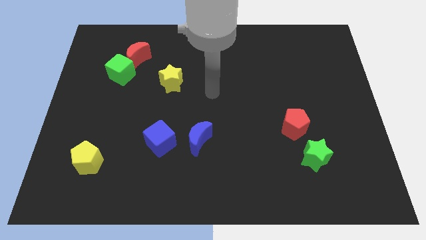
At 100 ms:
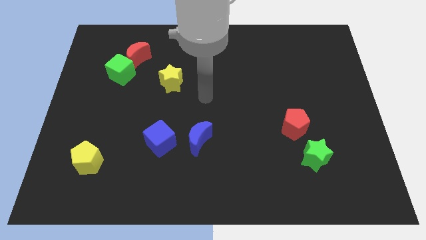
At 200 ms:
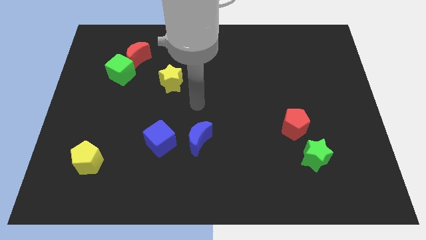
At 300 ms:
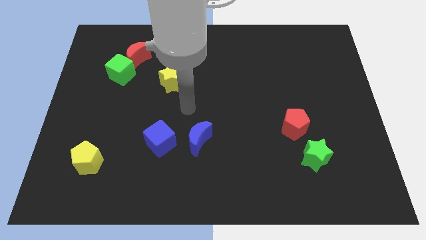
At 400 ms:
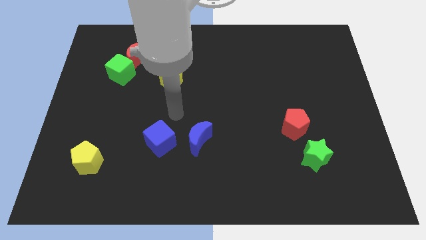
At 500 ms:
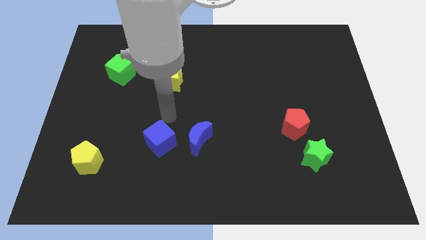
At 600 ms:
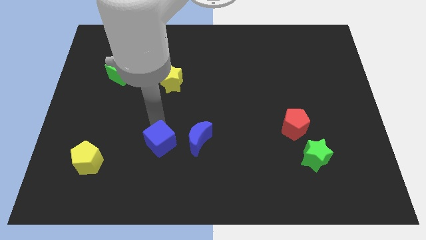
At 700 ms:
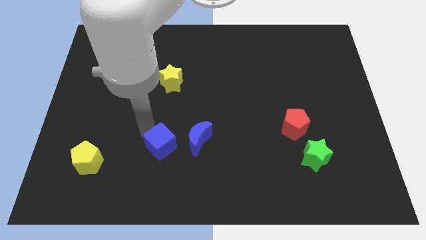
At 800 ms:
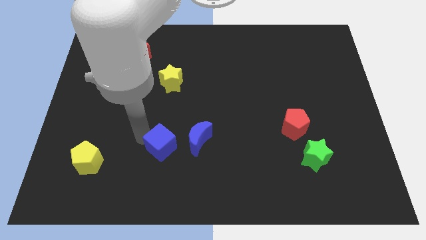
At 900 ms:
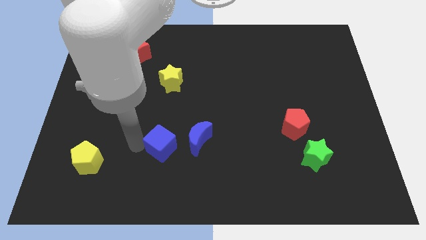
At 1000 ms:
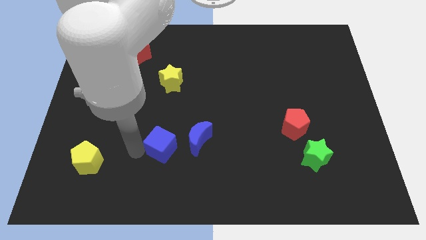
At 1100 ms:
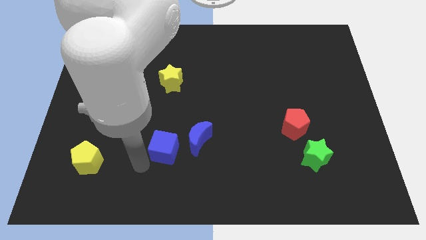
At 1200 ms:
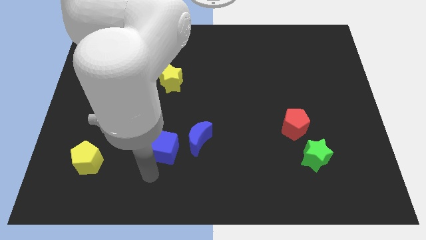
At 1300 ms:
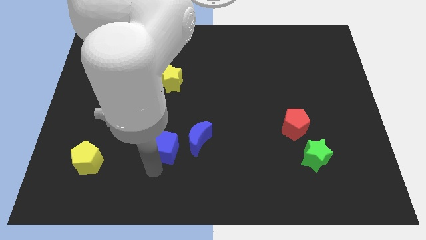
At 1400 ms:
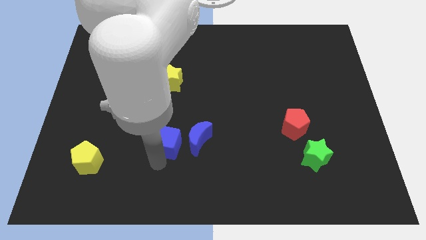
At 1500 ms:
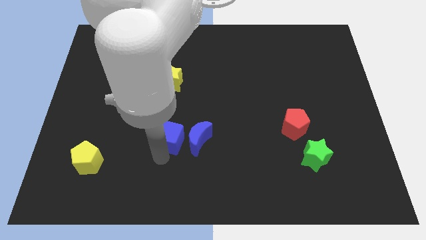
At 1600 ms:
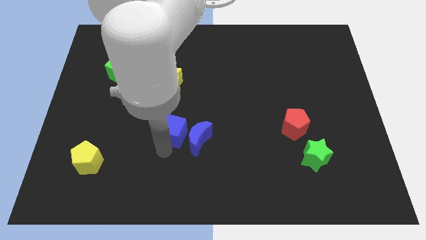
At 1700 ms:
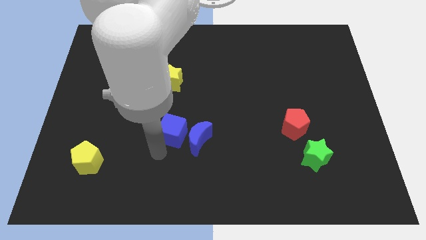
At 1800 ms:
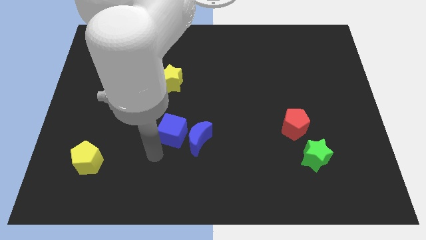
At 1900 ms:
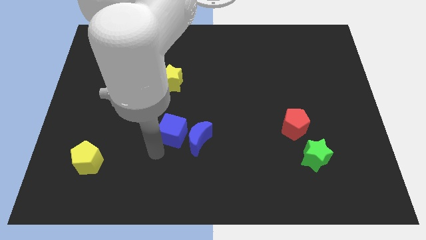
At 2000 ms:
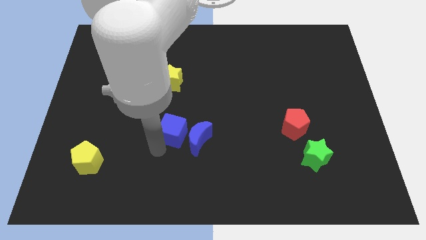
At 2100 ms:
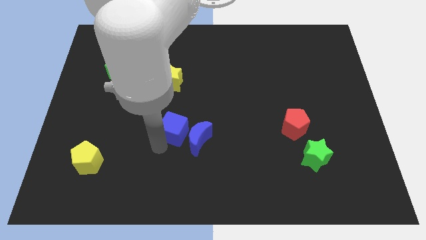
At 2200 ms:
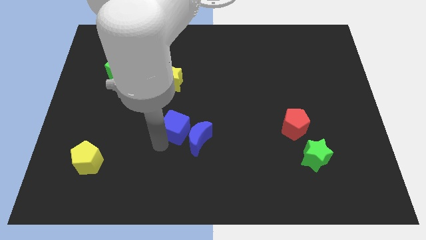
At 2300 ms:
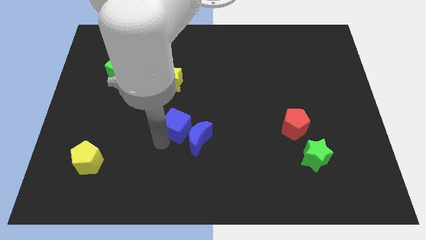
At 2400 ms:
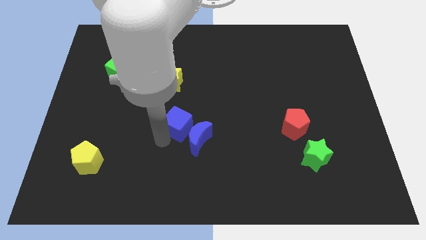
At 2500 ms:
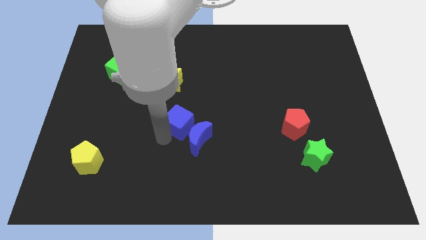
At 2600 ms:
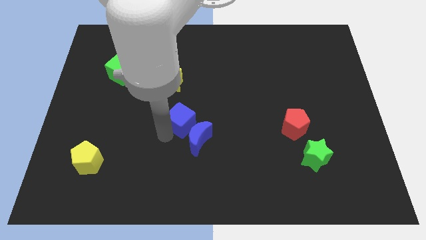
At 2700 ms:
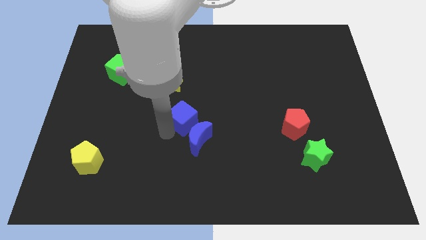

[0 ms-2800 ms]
slide the blue cube upwards and then to the right a little bit

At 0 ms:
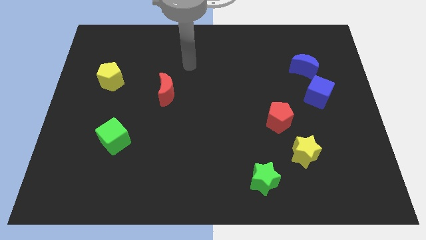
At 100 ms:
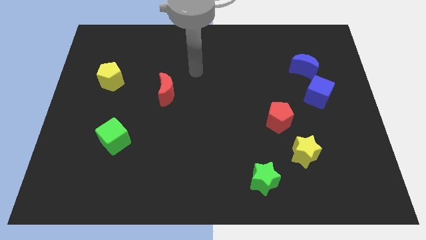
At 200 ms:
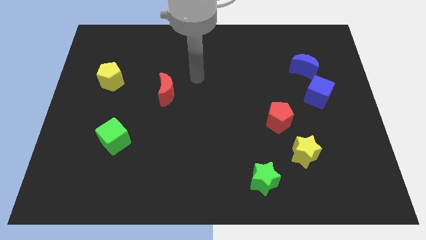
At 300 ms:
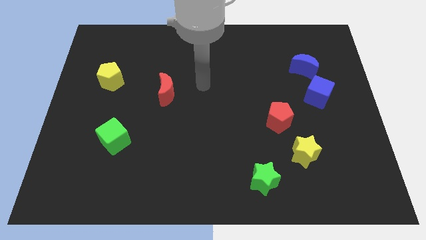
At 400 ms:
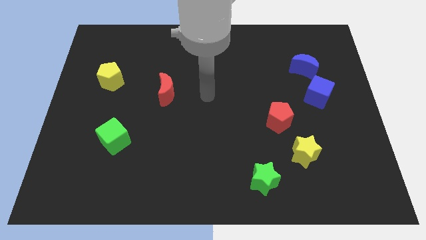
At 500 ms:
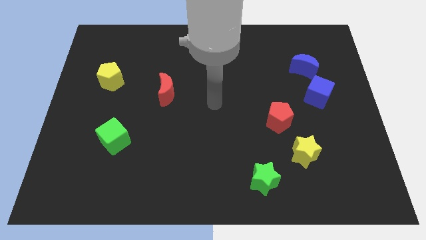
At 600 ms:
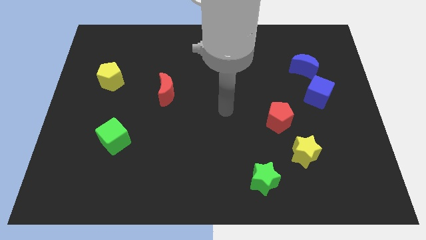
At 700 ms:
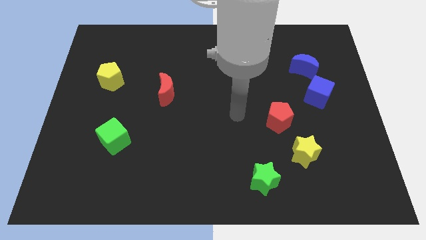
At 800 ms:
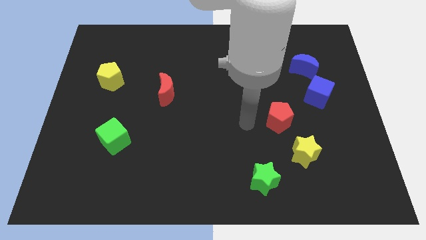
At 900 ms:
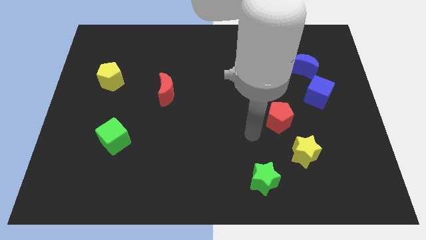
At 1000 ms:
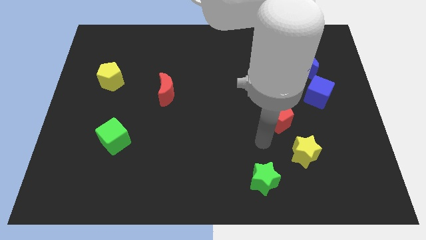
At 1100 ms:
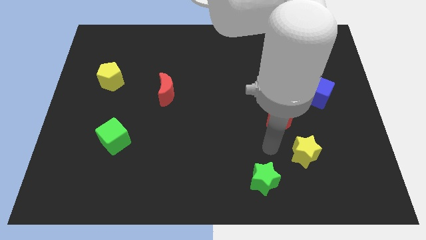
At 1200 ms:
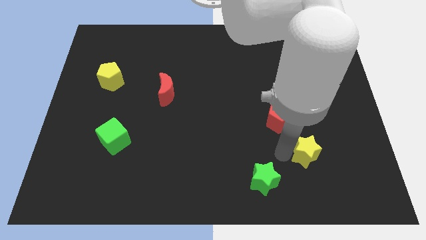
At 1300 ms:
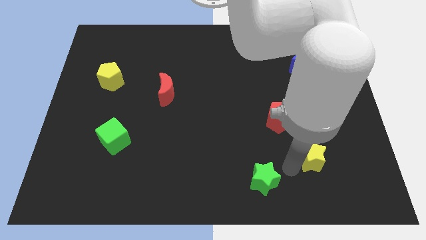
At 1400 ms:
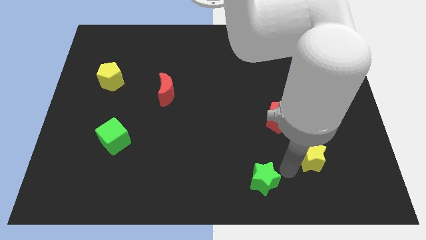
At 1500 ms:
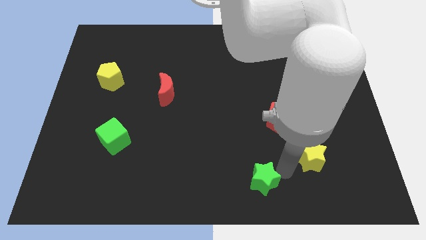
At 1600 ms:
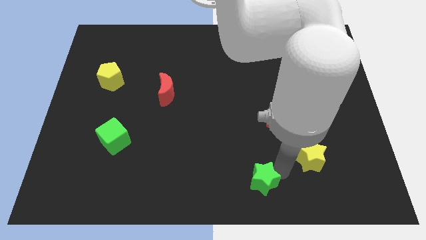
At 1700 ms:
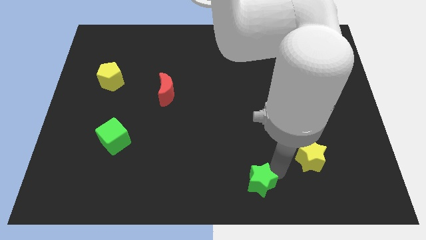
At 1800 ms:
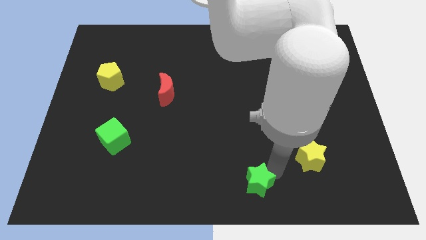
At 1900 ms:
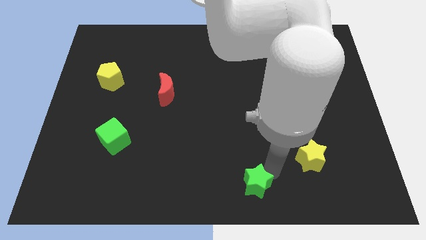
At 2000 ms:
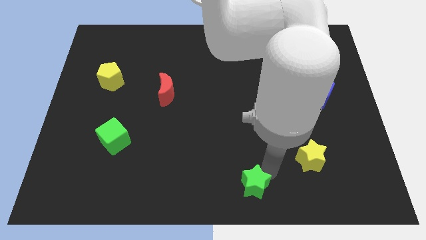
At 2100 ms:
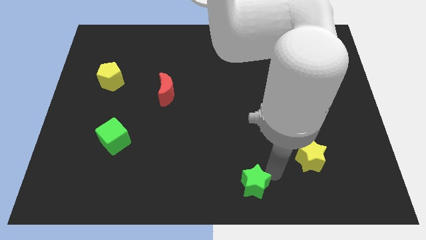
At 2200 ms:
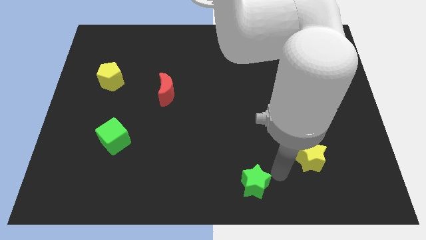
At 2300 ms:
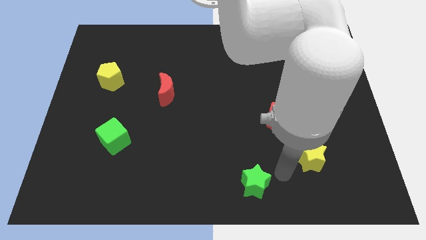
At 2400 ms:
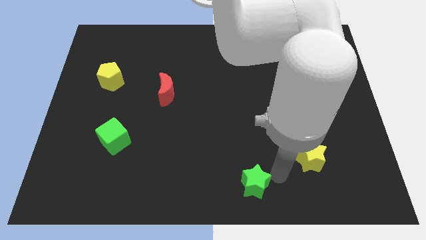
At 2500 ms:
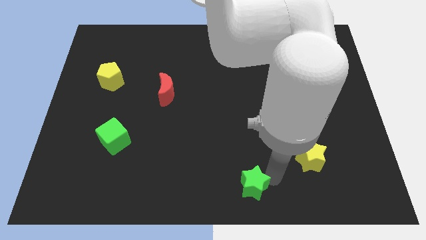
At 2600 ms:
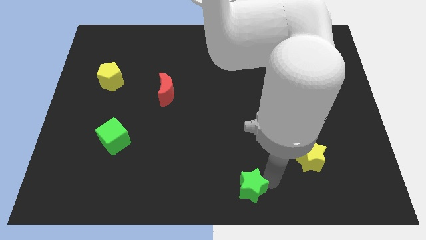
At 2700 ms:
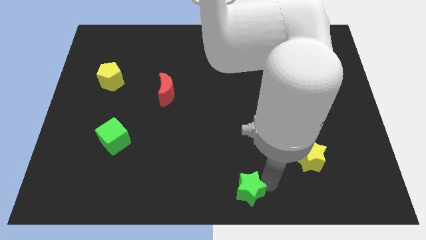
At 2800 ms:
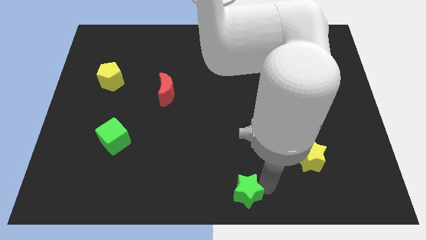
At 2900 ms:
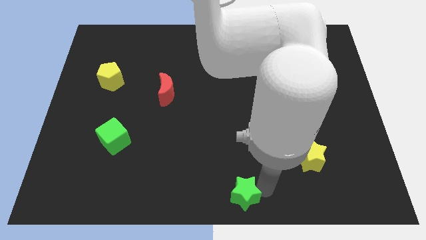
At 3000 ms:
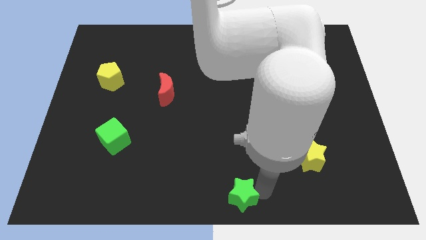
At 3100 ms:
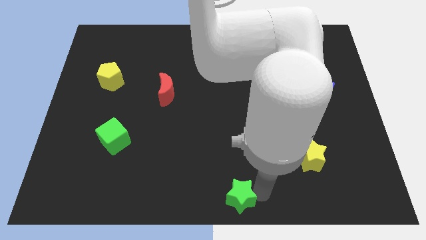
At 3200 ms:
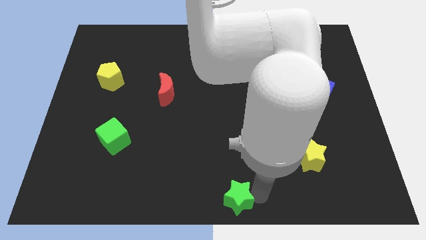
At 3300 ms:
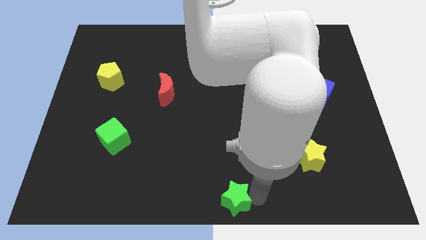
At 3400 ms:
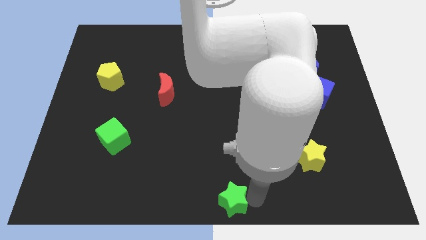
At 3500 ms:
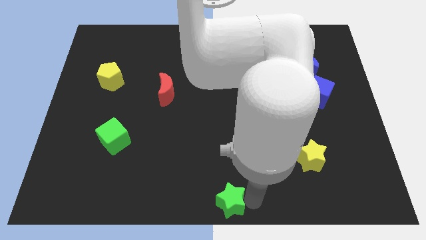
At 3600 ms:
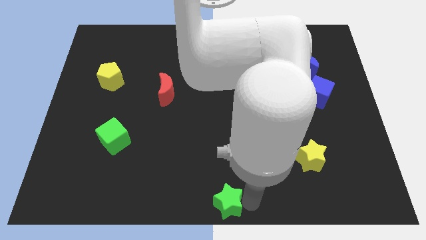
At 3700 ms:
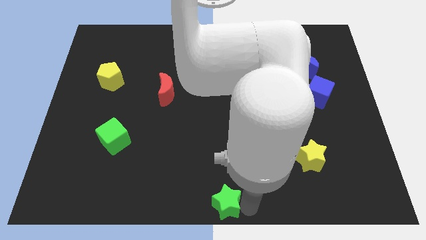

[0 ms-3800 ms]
push the green star to the left a bit

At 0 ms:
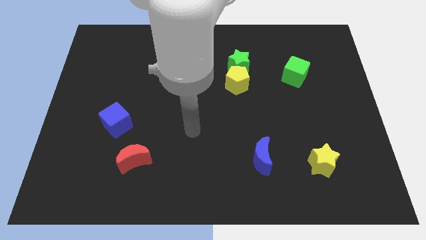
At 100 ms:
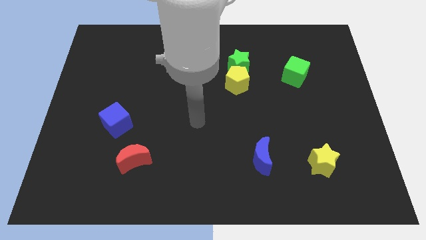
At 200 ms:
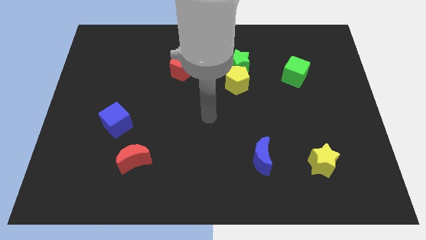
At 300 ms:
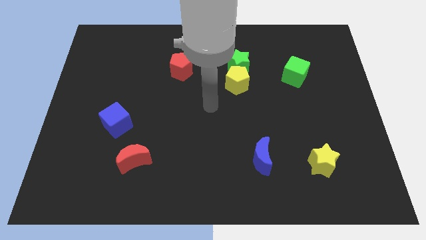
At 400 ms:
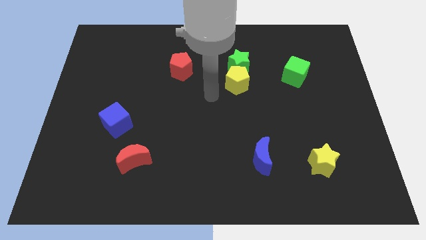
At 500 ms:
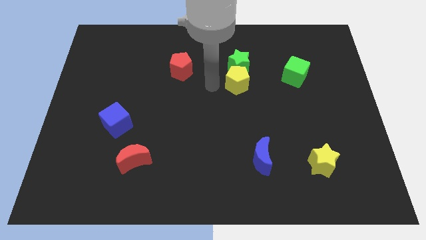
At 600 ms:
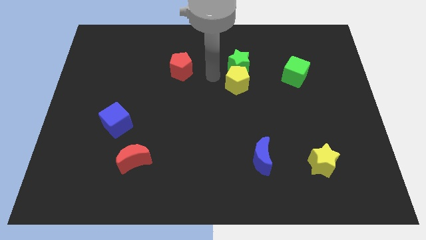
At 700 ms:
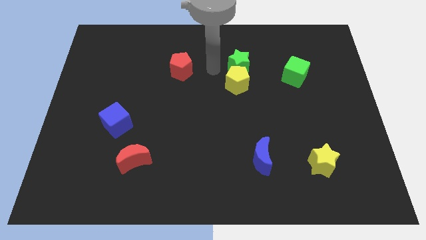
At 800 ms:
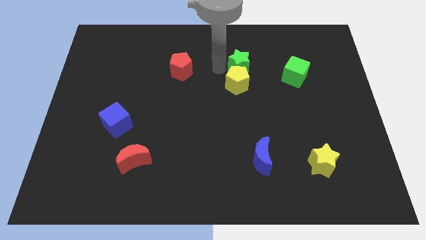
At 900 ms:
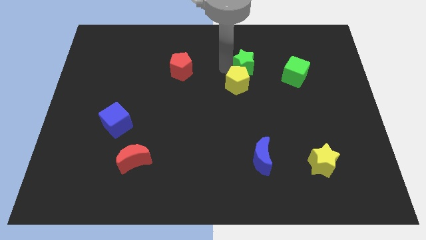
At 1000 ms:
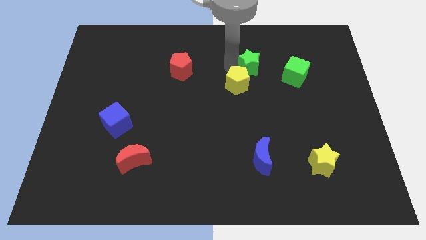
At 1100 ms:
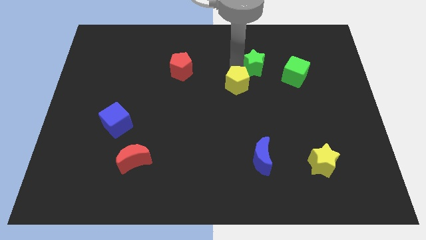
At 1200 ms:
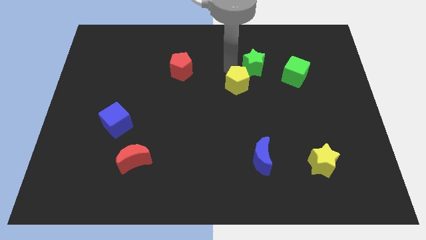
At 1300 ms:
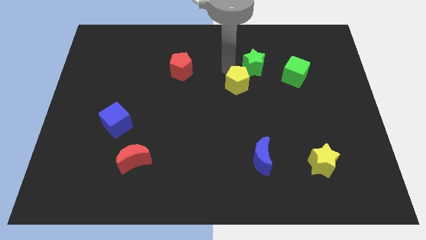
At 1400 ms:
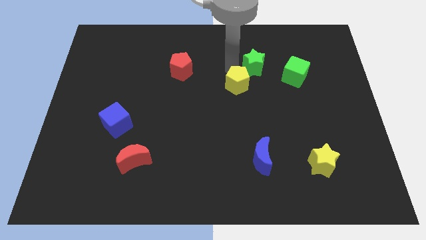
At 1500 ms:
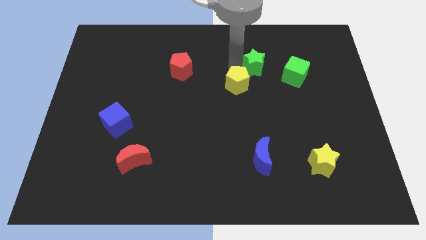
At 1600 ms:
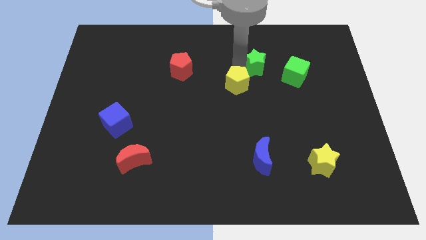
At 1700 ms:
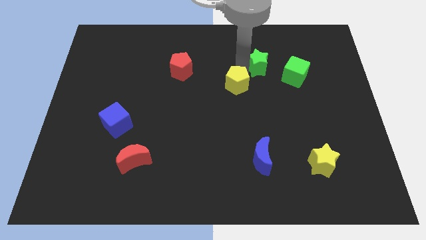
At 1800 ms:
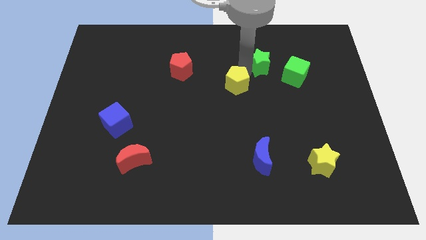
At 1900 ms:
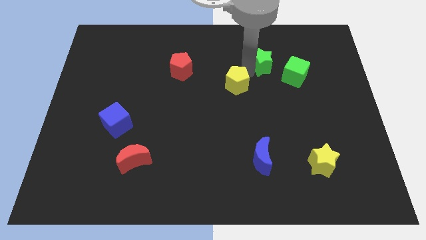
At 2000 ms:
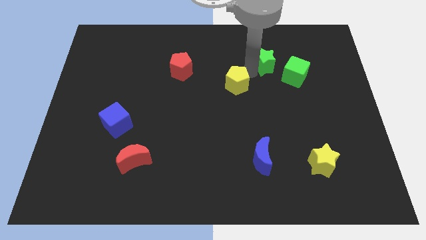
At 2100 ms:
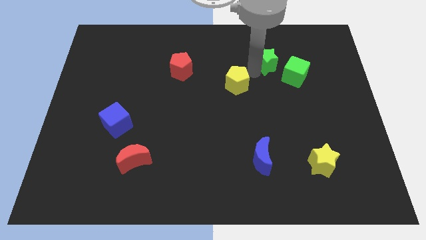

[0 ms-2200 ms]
slide the green star right slightly
